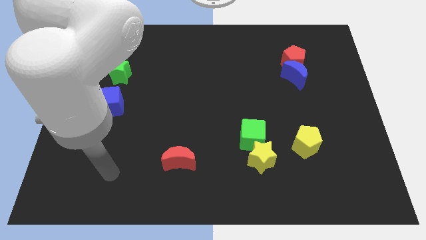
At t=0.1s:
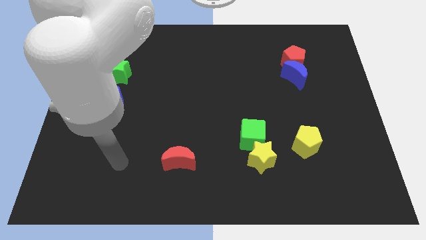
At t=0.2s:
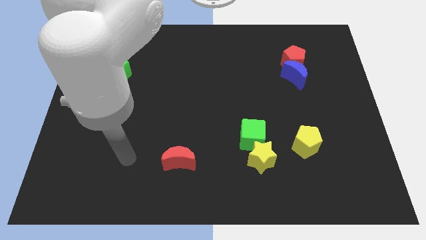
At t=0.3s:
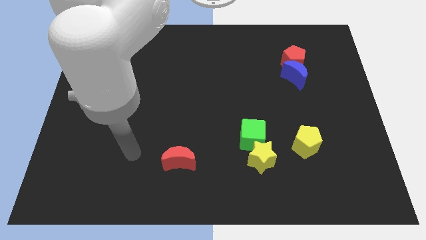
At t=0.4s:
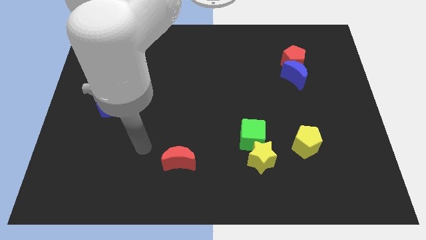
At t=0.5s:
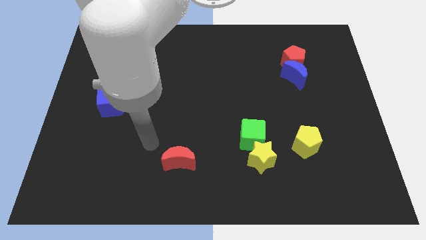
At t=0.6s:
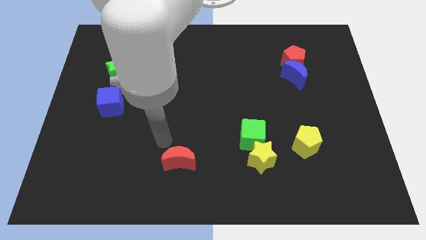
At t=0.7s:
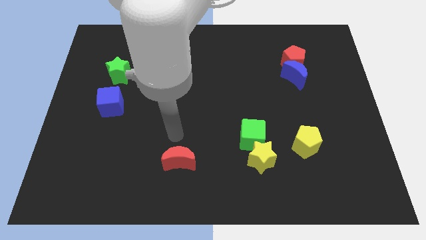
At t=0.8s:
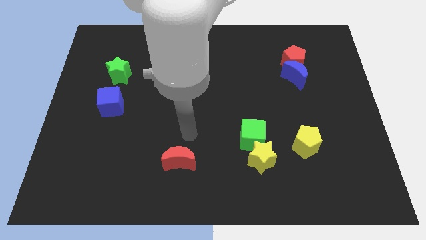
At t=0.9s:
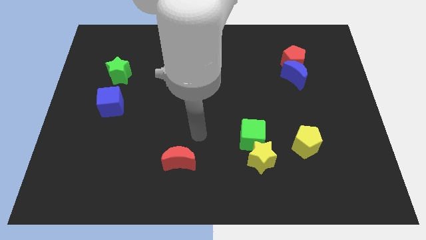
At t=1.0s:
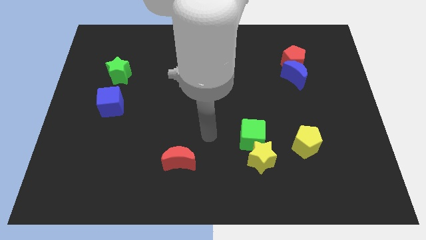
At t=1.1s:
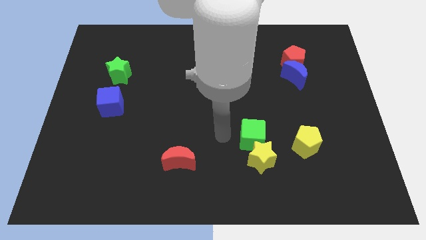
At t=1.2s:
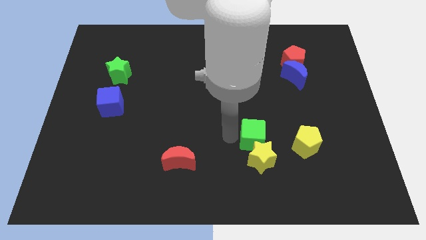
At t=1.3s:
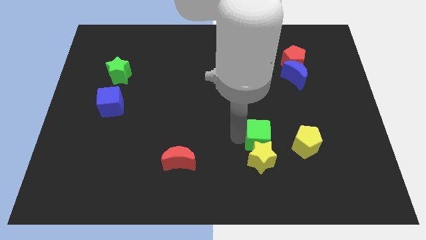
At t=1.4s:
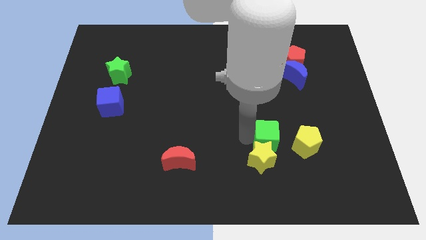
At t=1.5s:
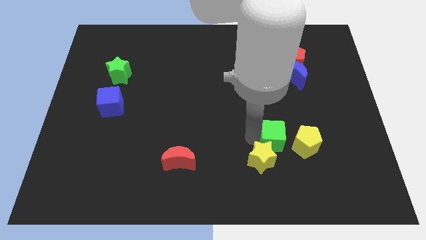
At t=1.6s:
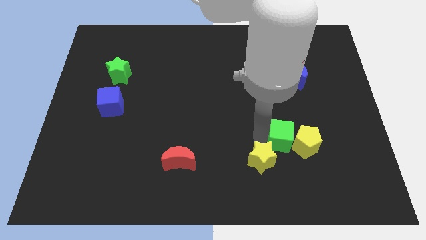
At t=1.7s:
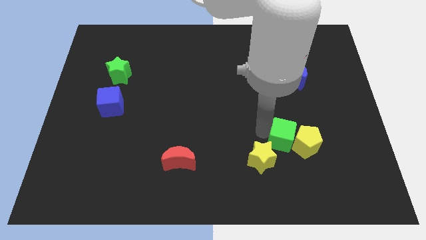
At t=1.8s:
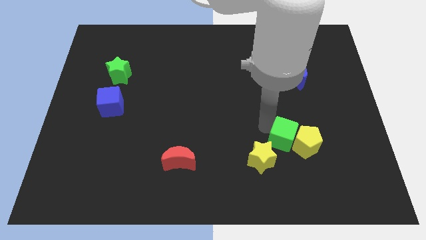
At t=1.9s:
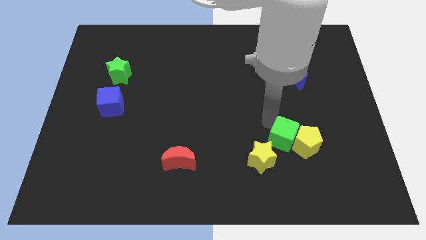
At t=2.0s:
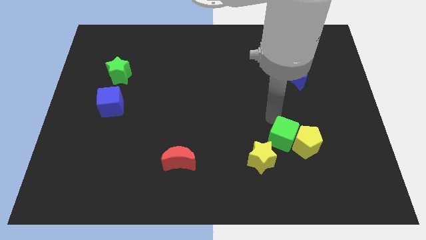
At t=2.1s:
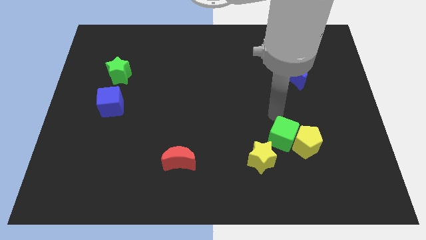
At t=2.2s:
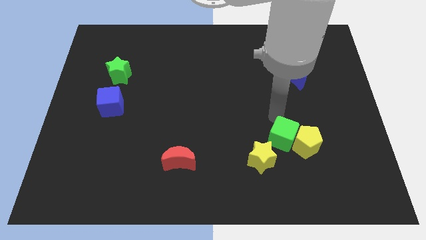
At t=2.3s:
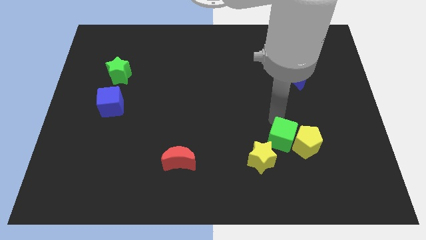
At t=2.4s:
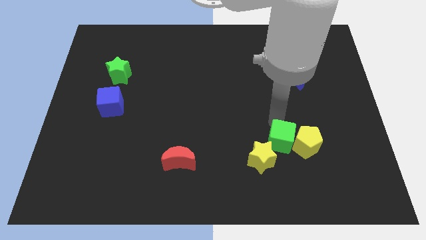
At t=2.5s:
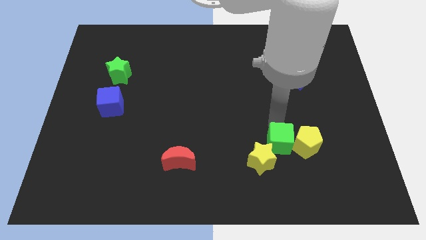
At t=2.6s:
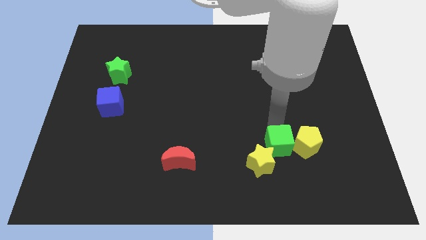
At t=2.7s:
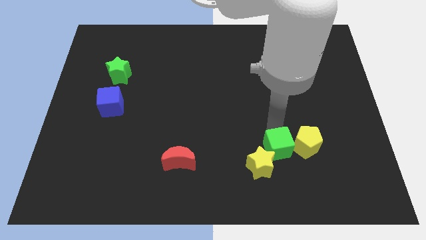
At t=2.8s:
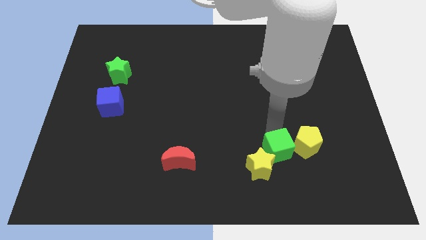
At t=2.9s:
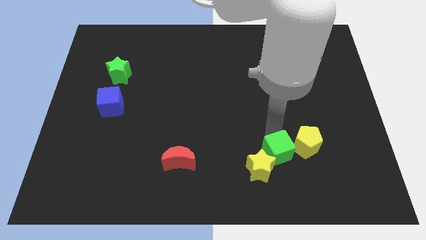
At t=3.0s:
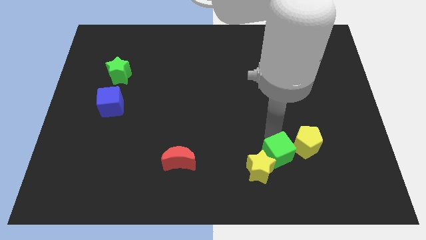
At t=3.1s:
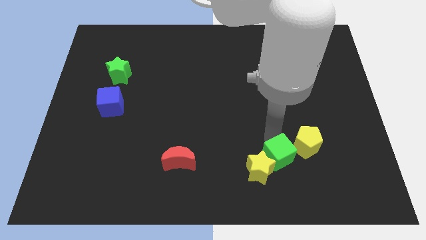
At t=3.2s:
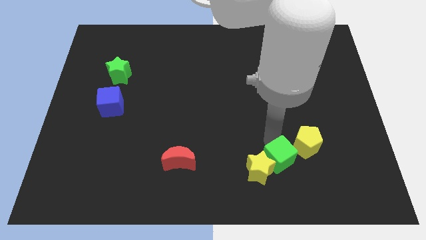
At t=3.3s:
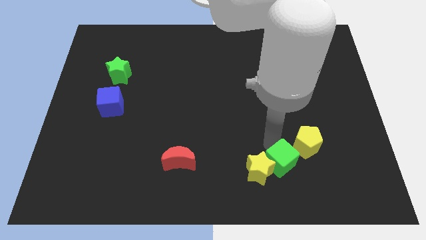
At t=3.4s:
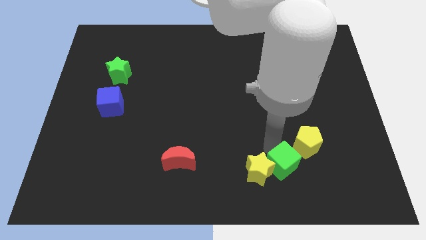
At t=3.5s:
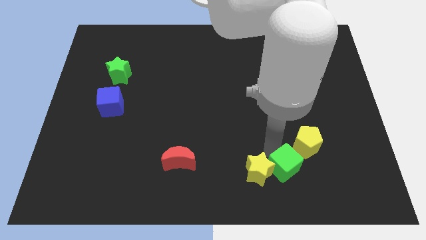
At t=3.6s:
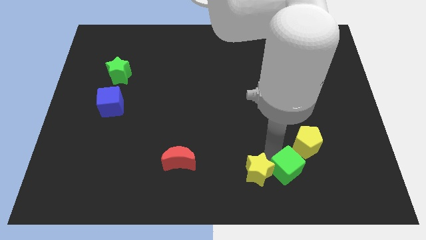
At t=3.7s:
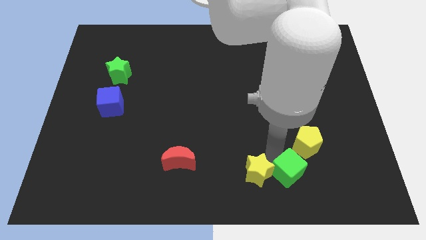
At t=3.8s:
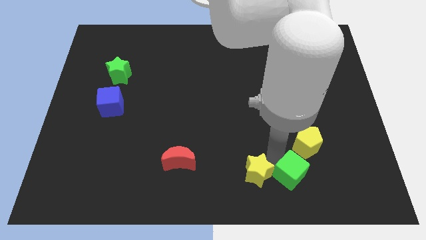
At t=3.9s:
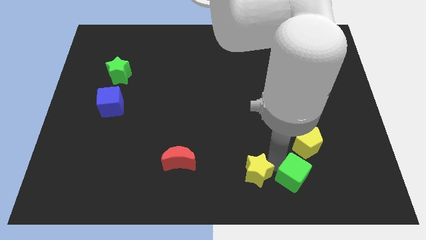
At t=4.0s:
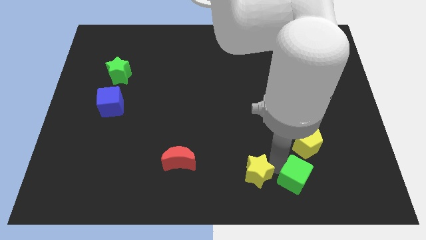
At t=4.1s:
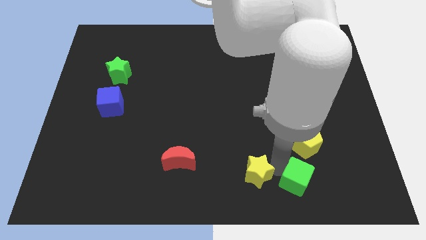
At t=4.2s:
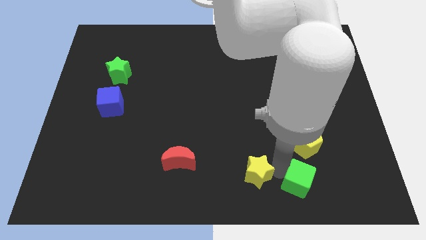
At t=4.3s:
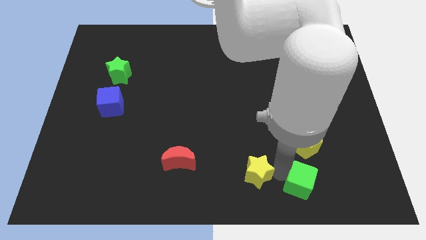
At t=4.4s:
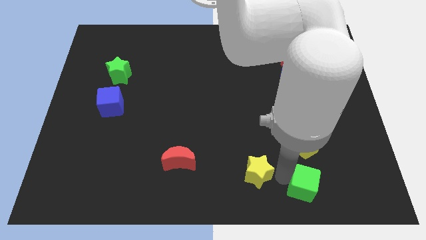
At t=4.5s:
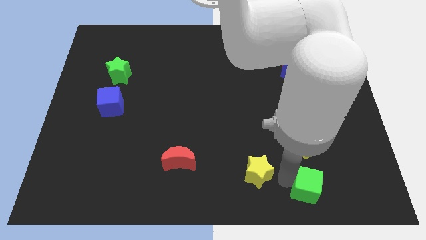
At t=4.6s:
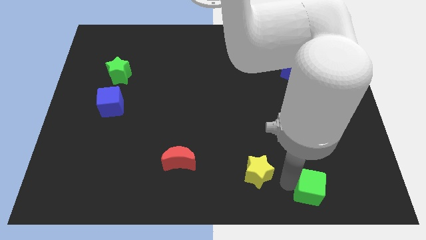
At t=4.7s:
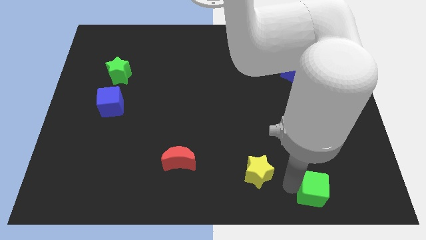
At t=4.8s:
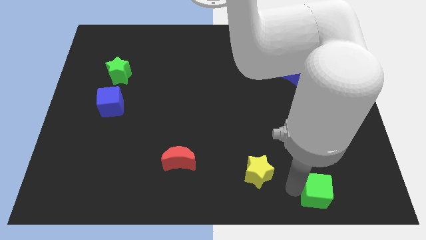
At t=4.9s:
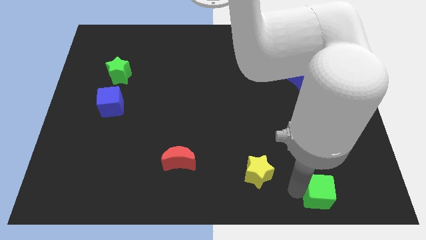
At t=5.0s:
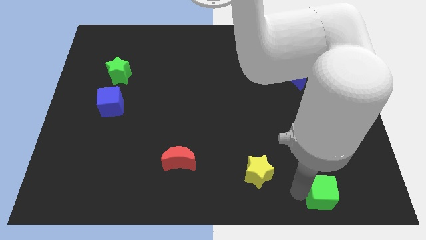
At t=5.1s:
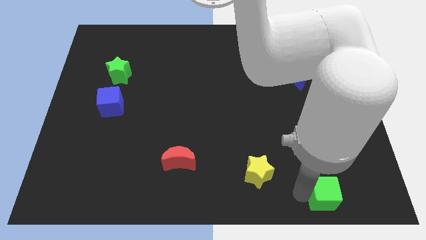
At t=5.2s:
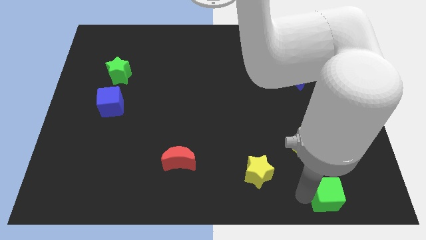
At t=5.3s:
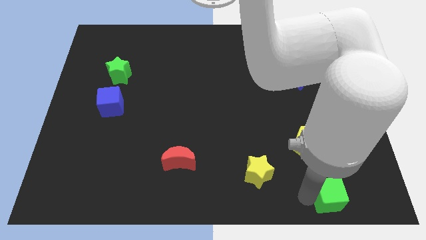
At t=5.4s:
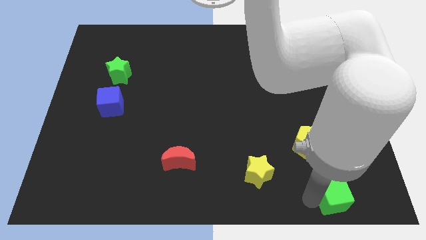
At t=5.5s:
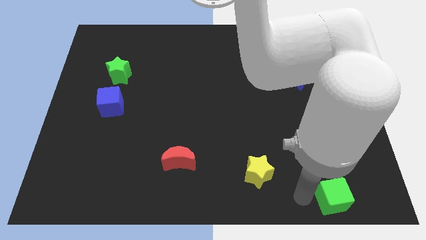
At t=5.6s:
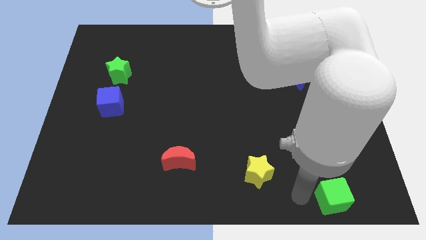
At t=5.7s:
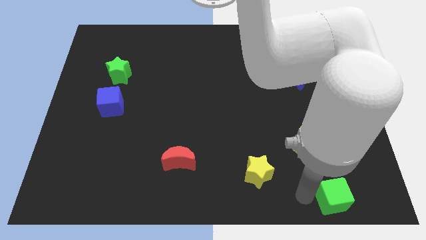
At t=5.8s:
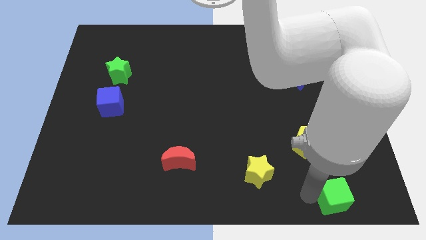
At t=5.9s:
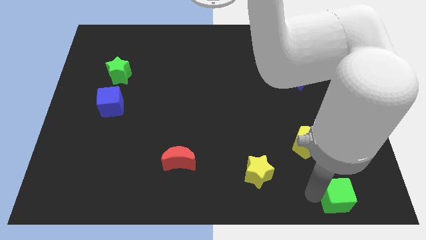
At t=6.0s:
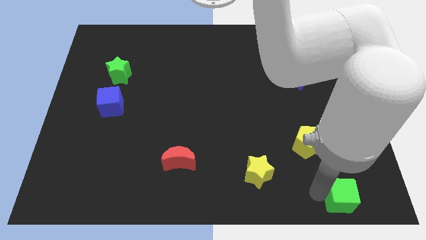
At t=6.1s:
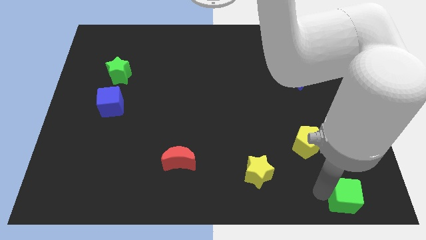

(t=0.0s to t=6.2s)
put the green cube to the bottom right of the board
